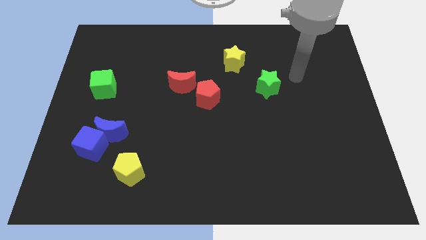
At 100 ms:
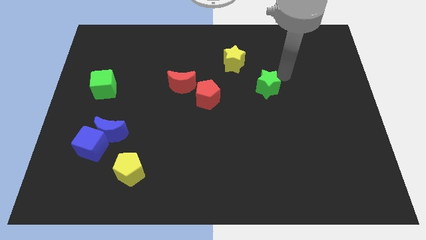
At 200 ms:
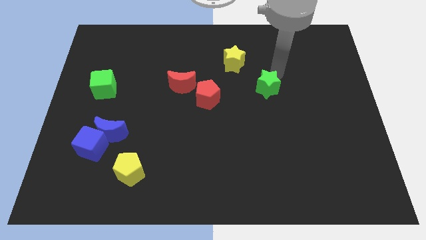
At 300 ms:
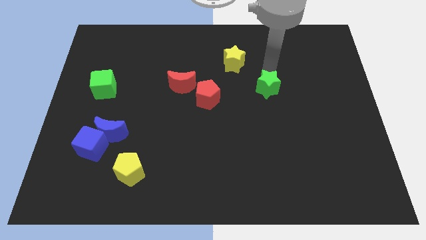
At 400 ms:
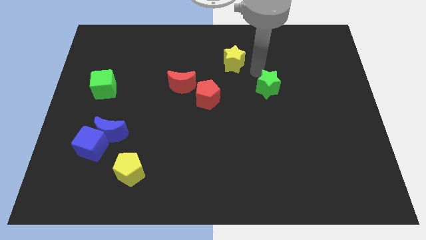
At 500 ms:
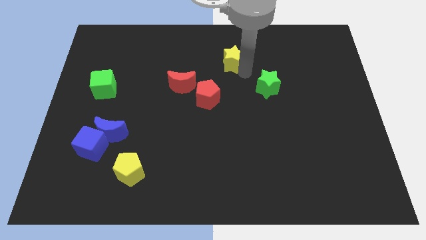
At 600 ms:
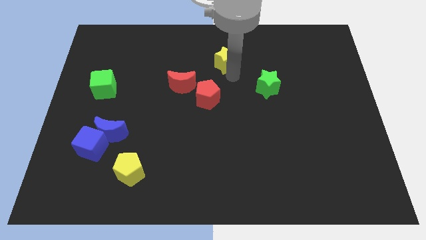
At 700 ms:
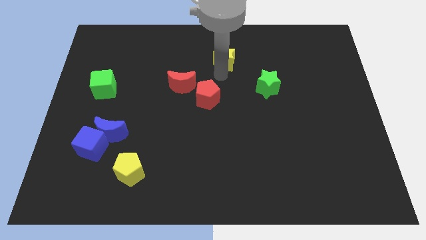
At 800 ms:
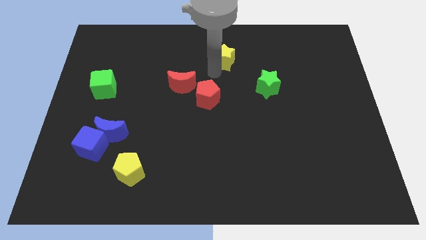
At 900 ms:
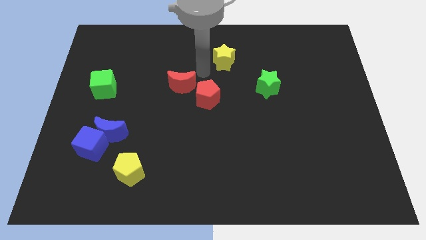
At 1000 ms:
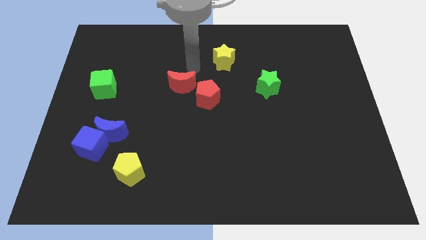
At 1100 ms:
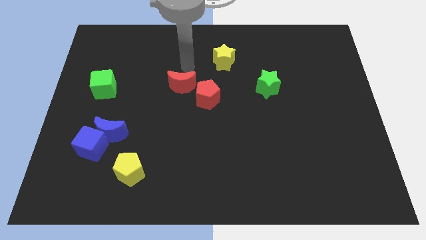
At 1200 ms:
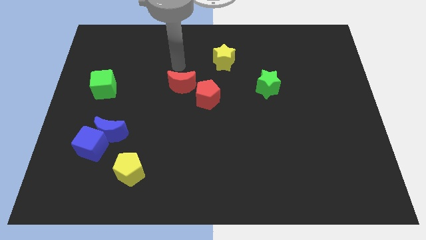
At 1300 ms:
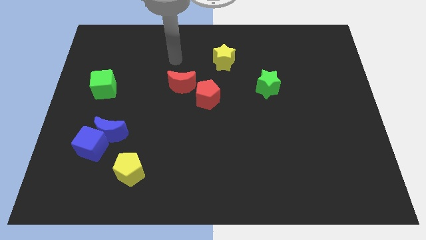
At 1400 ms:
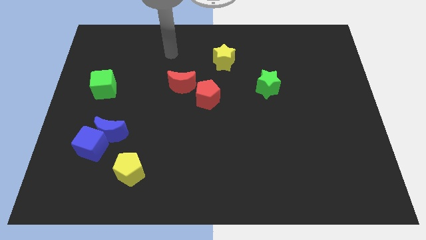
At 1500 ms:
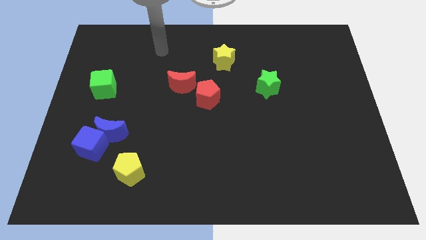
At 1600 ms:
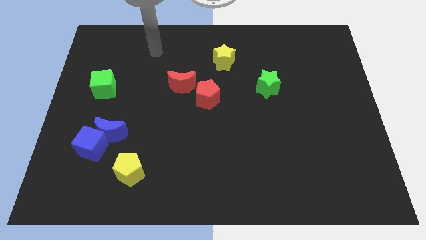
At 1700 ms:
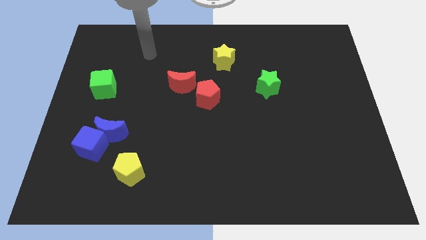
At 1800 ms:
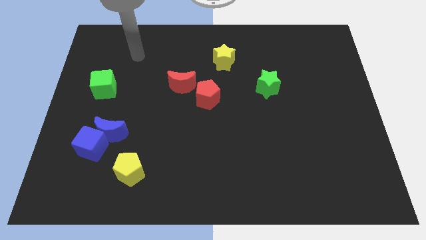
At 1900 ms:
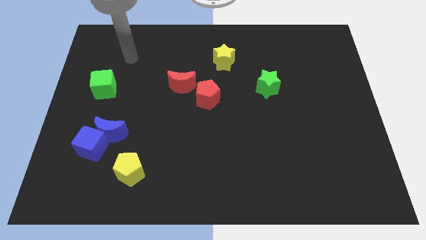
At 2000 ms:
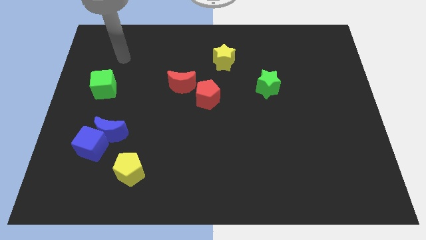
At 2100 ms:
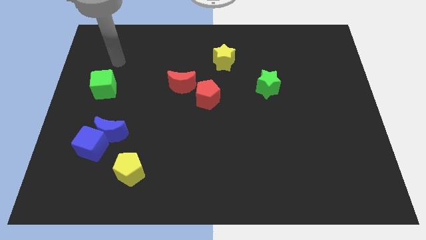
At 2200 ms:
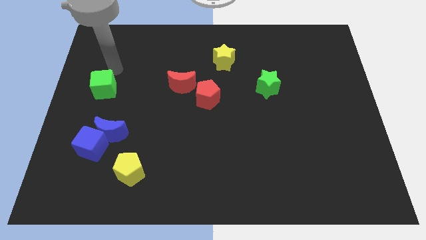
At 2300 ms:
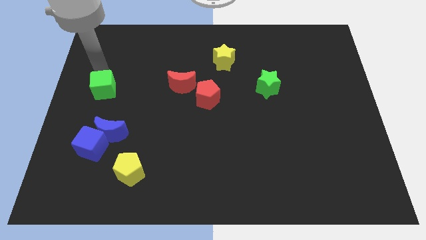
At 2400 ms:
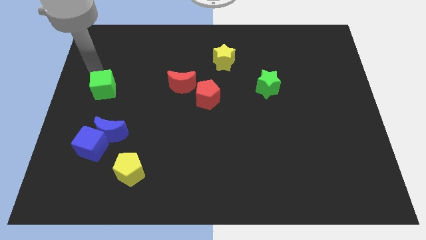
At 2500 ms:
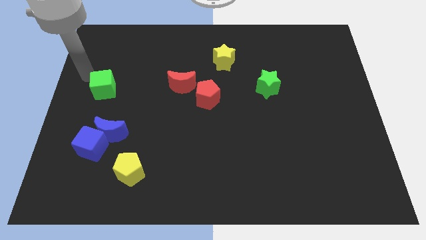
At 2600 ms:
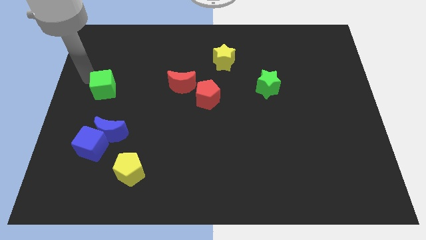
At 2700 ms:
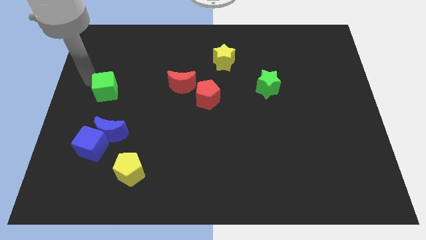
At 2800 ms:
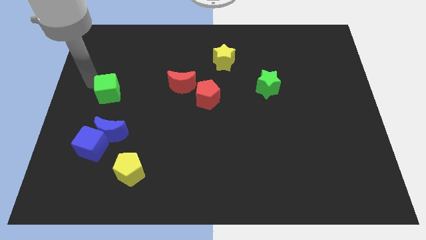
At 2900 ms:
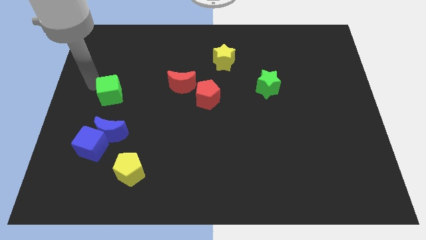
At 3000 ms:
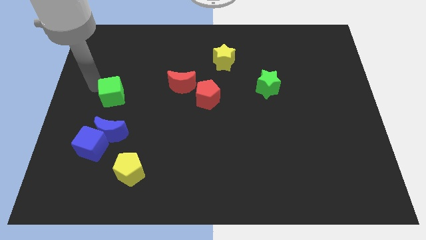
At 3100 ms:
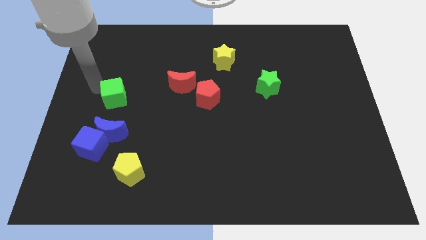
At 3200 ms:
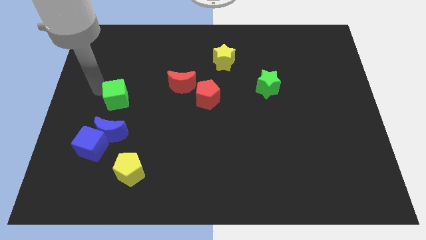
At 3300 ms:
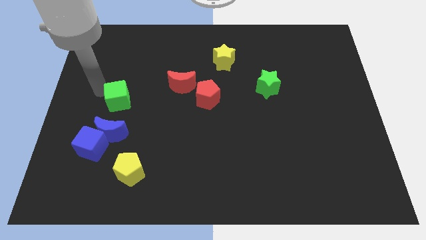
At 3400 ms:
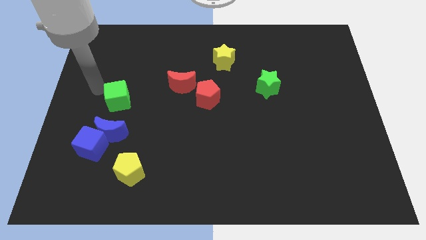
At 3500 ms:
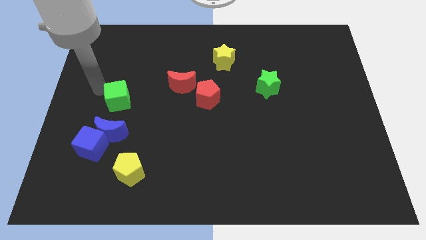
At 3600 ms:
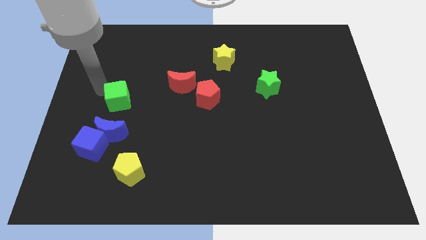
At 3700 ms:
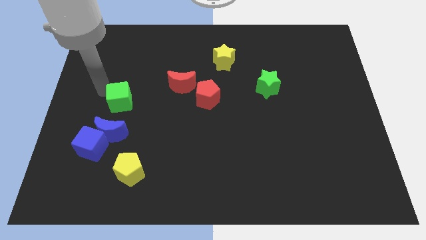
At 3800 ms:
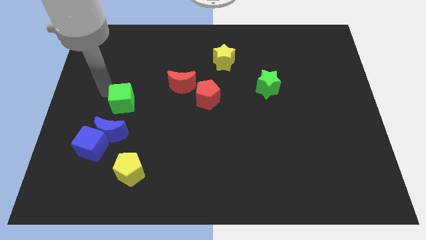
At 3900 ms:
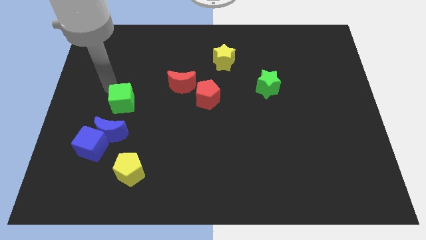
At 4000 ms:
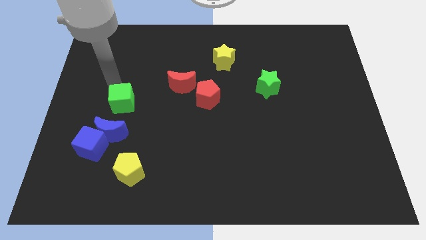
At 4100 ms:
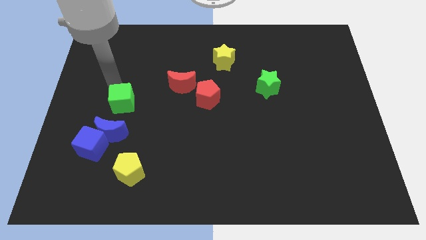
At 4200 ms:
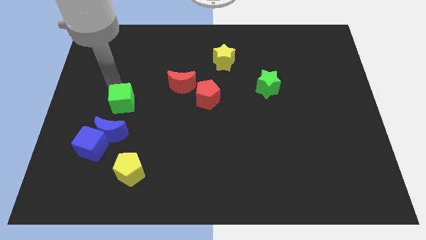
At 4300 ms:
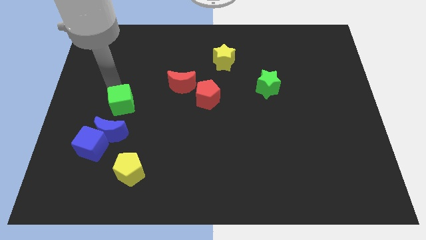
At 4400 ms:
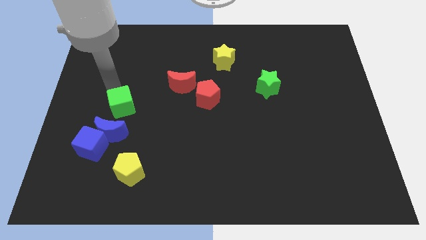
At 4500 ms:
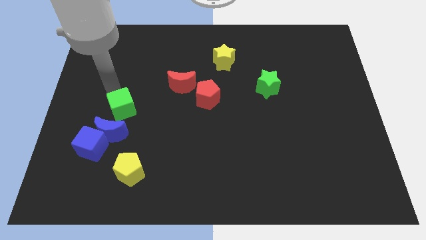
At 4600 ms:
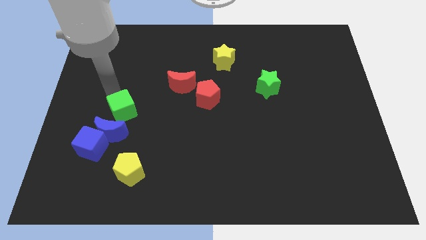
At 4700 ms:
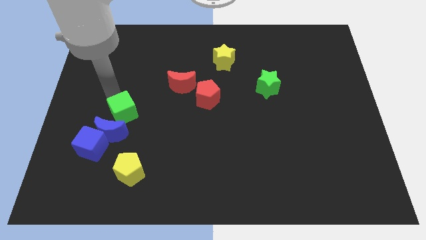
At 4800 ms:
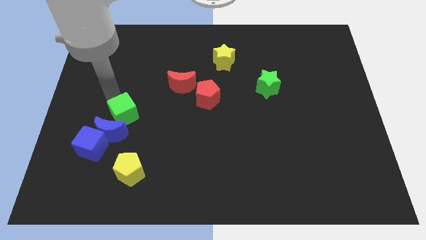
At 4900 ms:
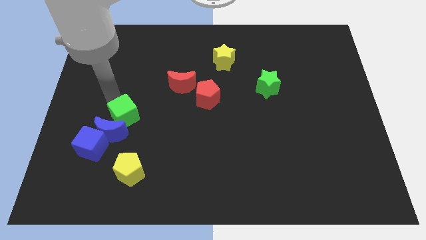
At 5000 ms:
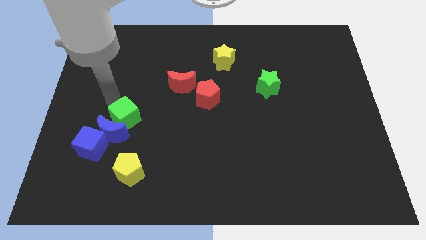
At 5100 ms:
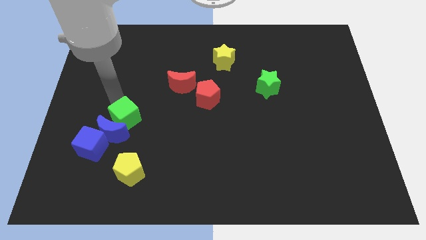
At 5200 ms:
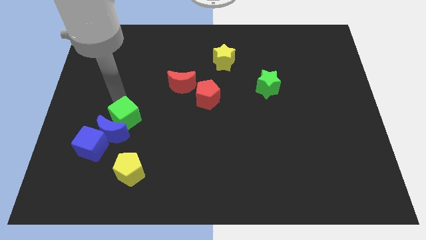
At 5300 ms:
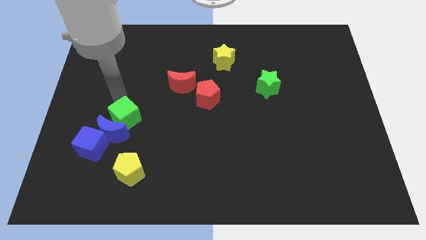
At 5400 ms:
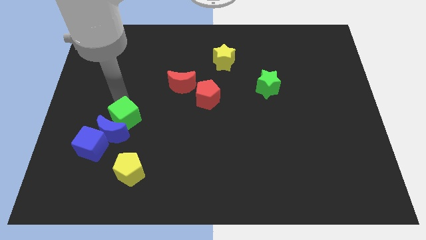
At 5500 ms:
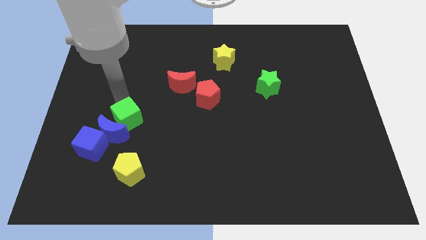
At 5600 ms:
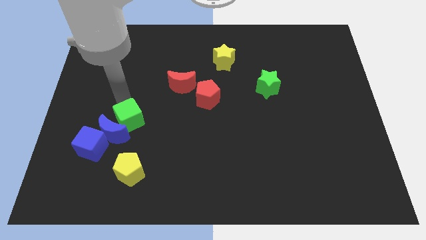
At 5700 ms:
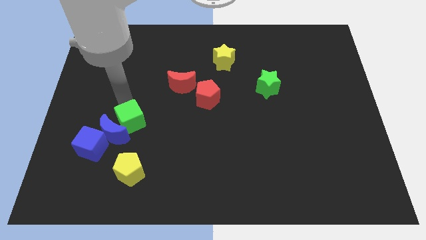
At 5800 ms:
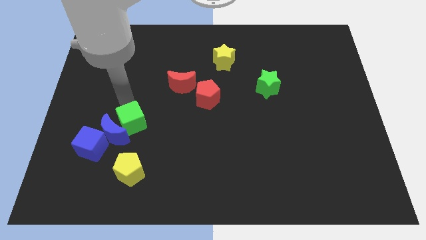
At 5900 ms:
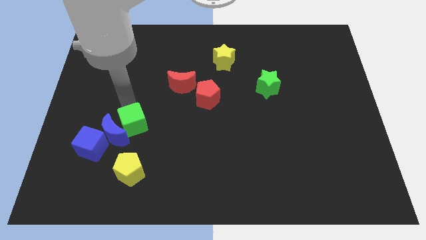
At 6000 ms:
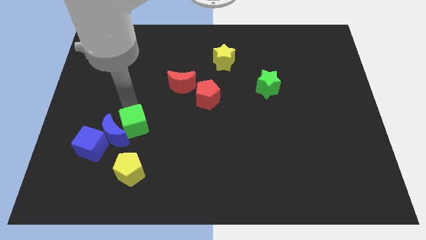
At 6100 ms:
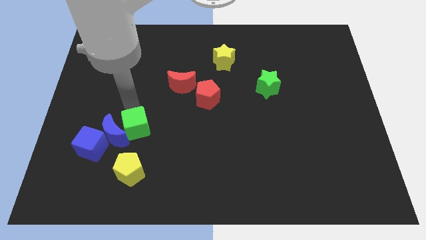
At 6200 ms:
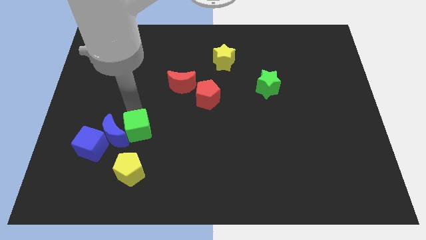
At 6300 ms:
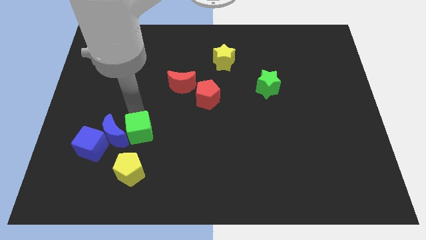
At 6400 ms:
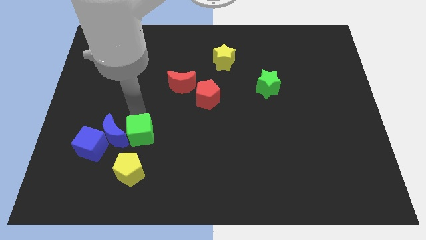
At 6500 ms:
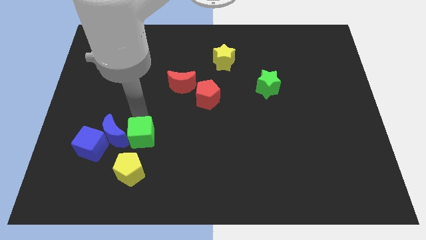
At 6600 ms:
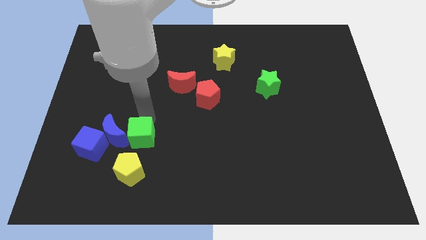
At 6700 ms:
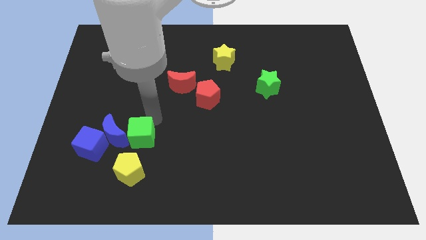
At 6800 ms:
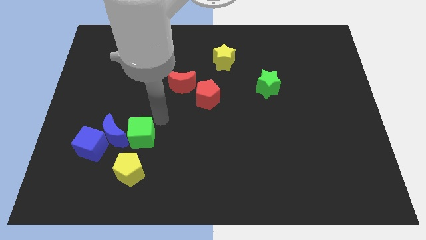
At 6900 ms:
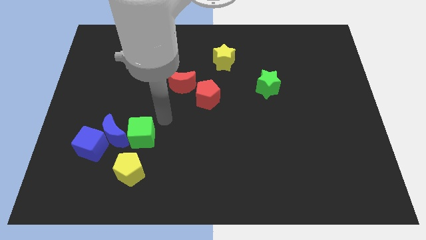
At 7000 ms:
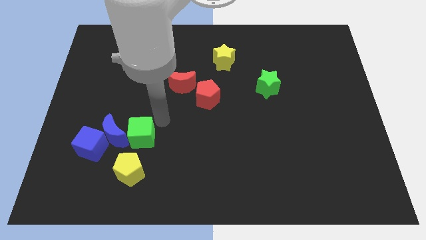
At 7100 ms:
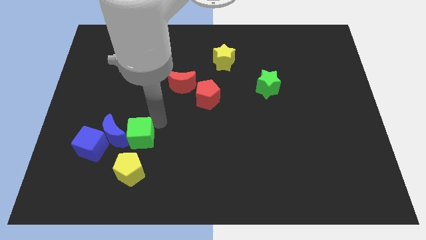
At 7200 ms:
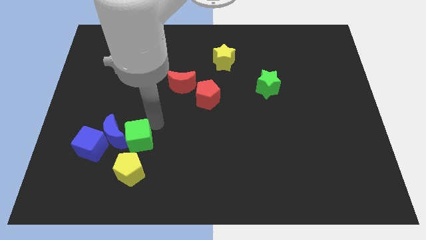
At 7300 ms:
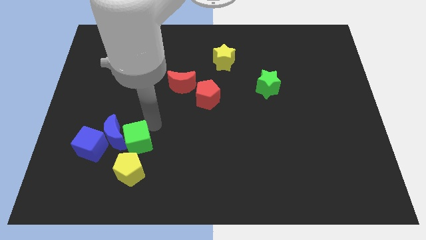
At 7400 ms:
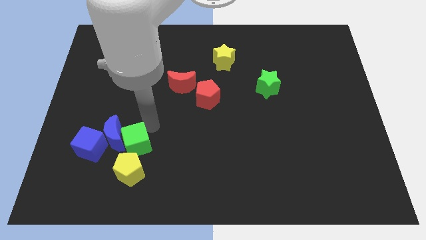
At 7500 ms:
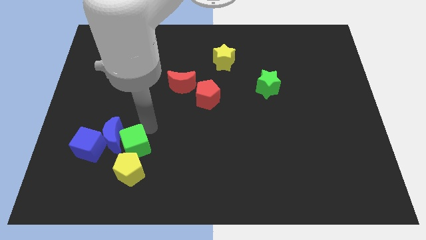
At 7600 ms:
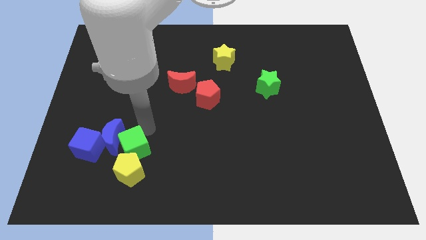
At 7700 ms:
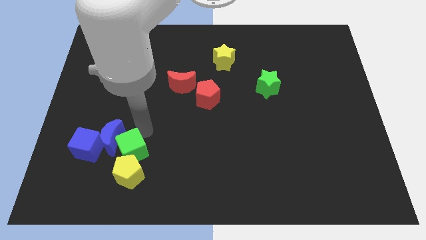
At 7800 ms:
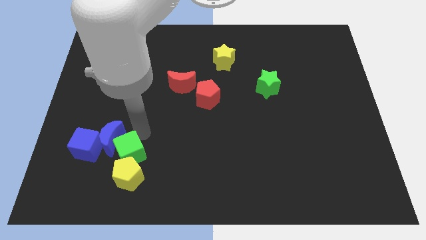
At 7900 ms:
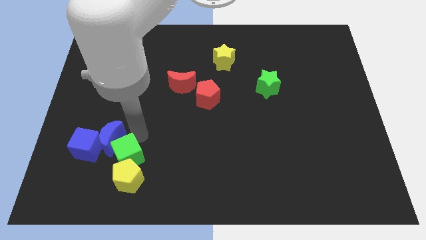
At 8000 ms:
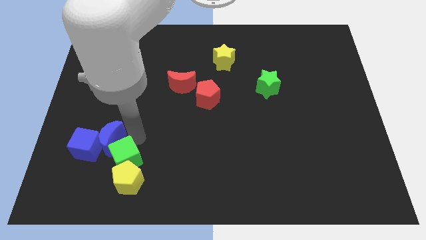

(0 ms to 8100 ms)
slide the green cube diagonally down and to the right of the blue cube

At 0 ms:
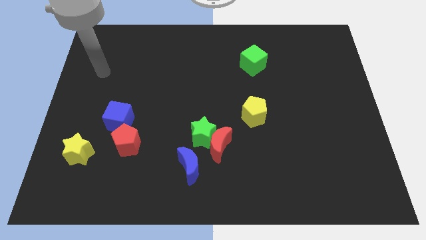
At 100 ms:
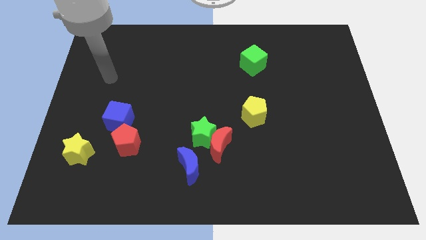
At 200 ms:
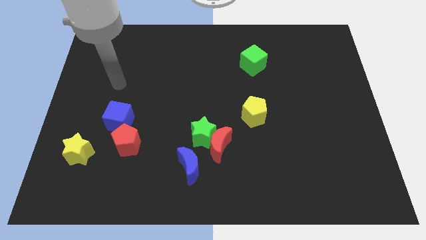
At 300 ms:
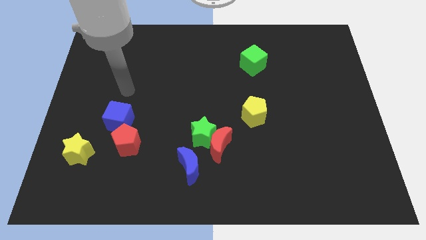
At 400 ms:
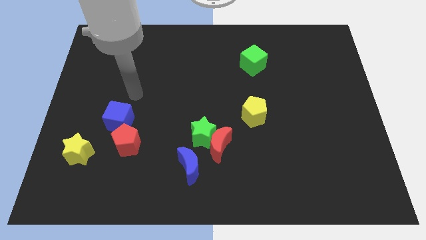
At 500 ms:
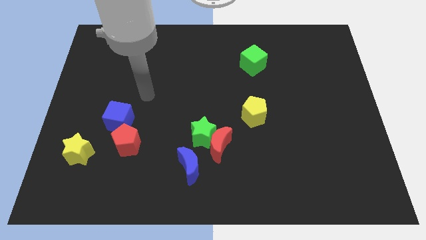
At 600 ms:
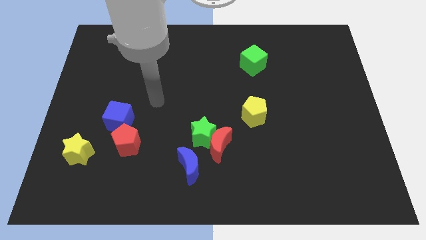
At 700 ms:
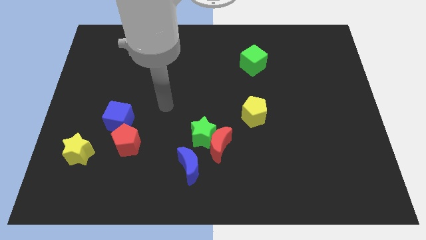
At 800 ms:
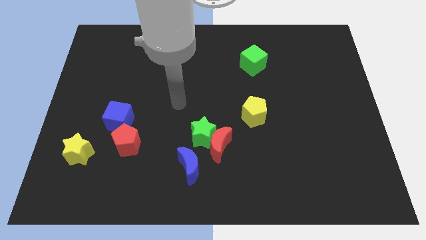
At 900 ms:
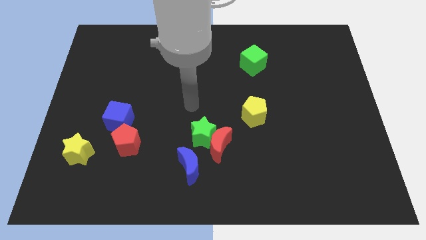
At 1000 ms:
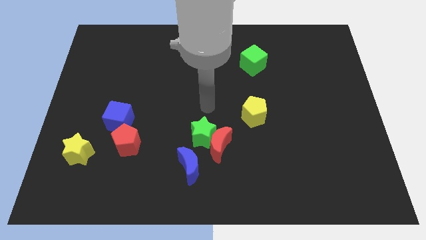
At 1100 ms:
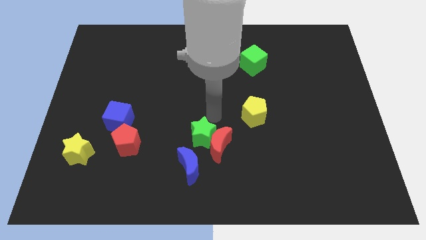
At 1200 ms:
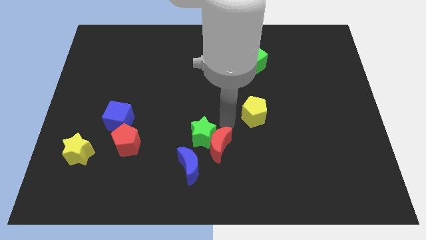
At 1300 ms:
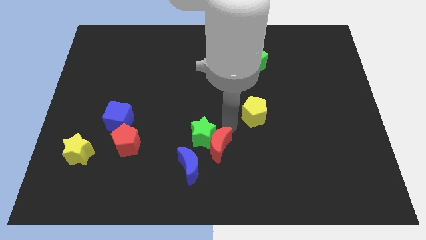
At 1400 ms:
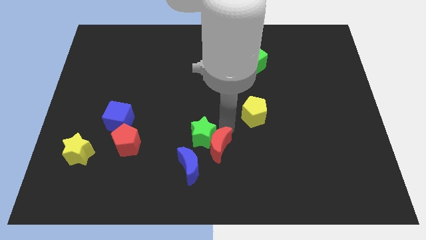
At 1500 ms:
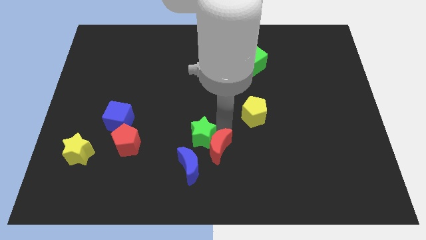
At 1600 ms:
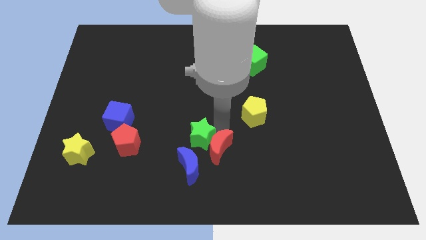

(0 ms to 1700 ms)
push the green star just right of the red pentagon
